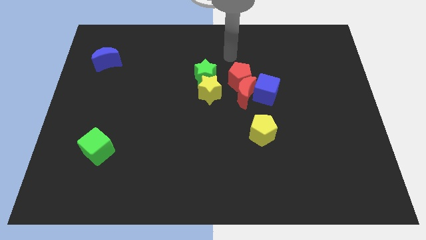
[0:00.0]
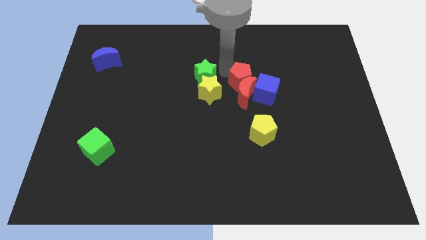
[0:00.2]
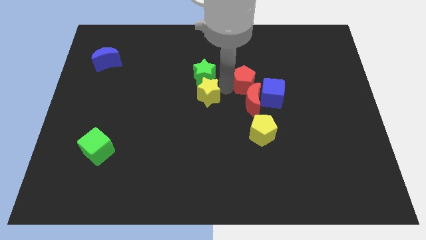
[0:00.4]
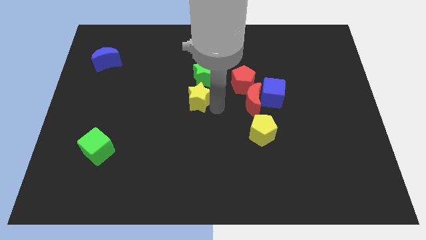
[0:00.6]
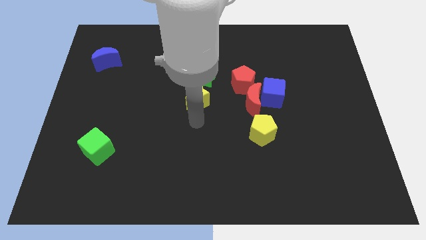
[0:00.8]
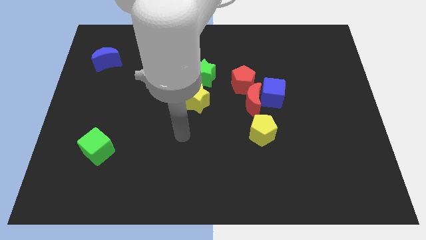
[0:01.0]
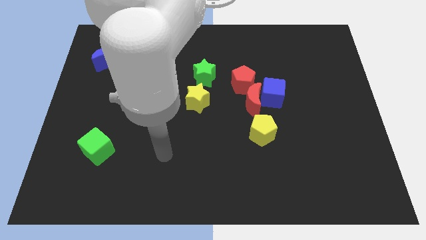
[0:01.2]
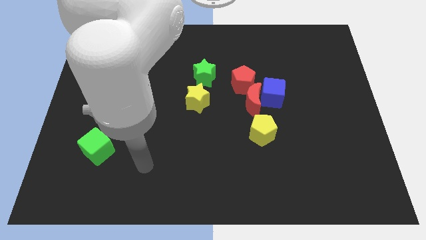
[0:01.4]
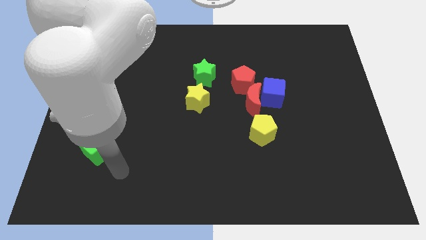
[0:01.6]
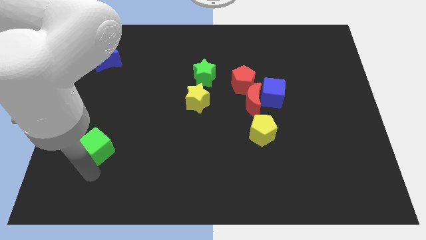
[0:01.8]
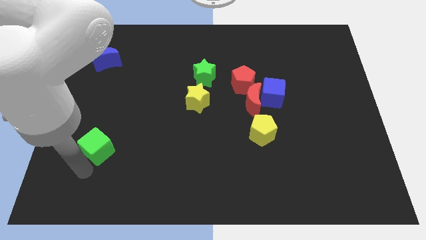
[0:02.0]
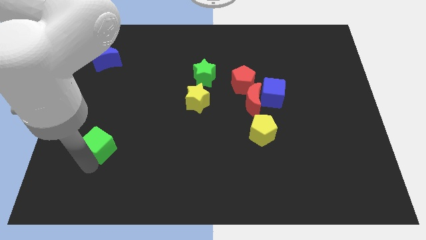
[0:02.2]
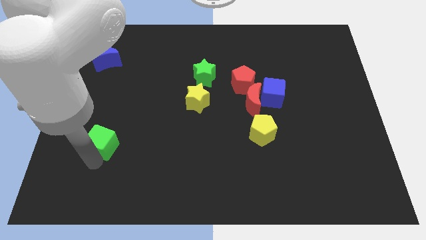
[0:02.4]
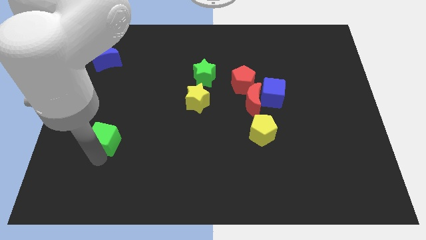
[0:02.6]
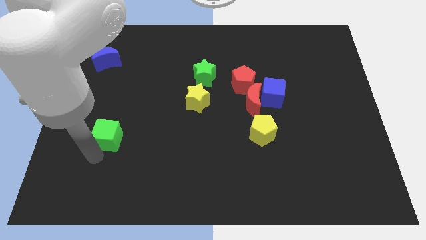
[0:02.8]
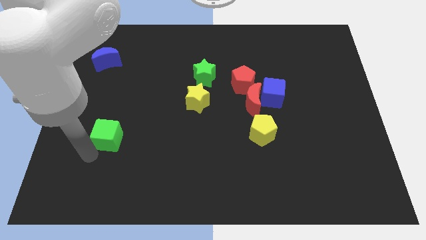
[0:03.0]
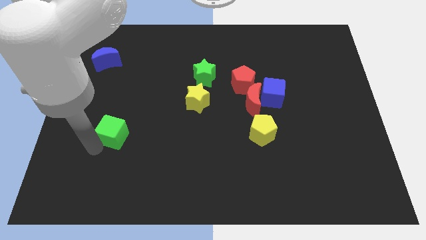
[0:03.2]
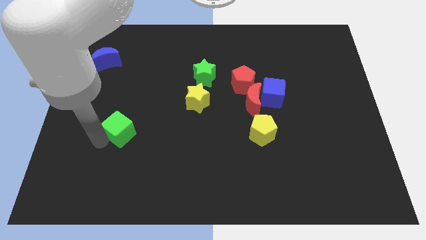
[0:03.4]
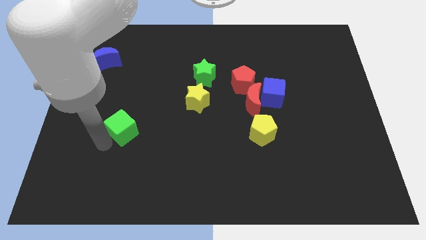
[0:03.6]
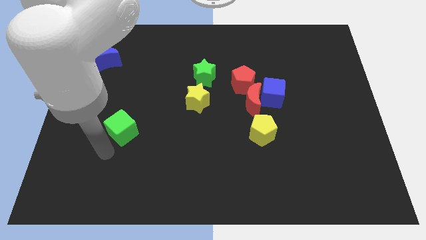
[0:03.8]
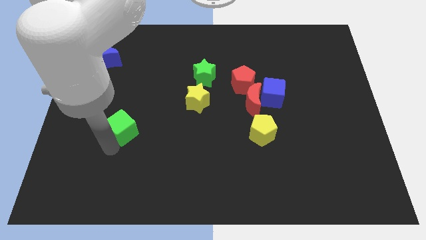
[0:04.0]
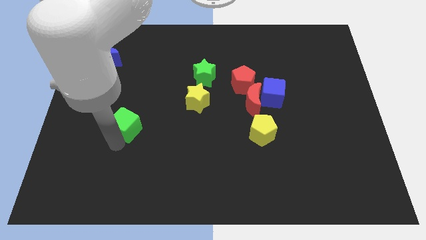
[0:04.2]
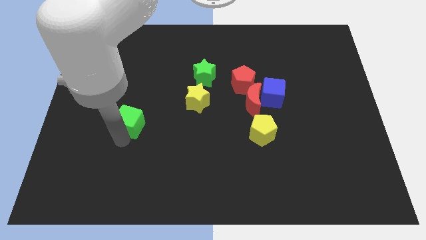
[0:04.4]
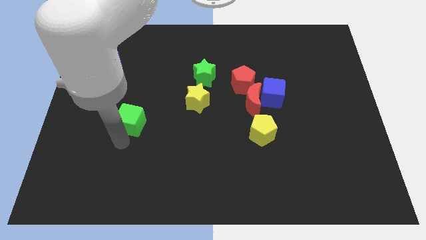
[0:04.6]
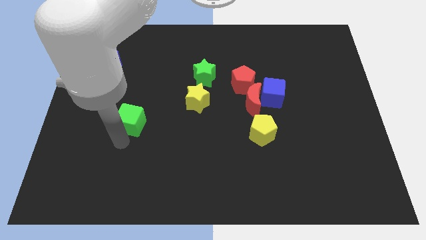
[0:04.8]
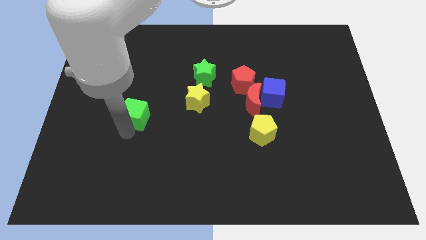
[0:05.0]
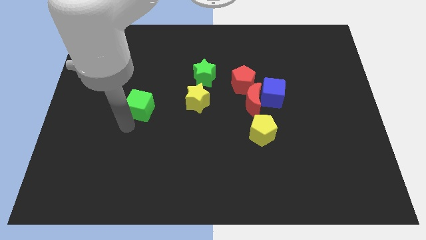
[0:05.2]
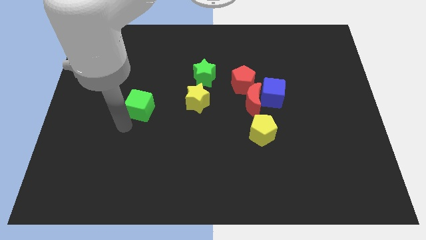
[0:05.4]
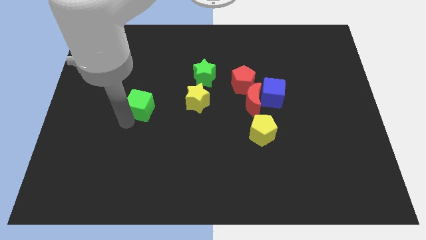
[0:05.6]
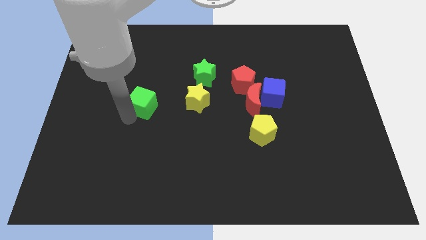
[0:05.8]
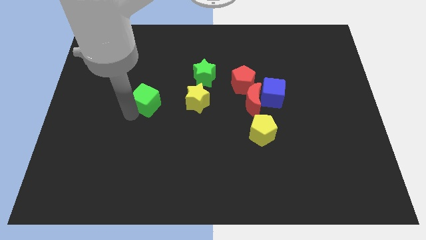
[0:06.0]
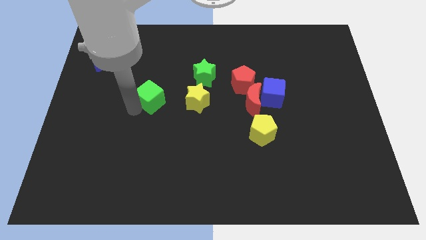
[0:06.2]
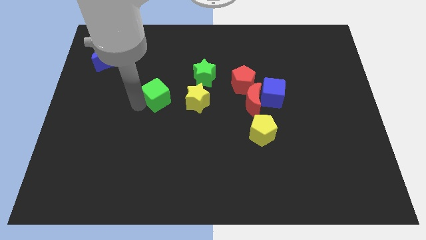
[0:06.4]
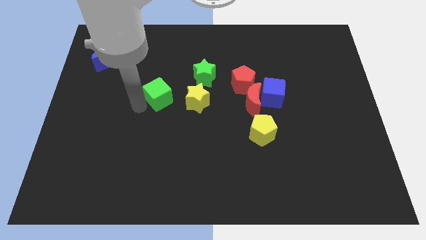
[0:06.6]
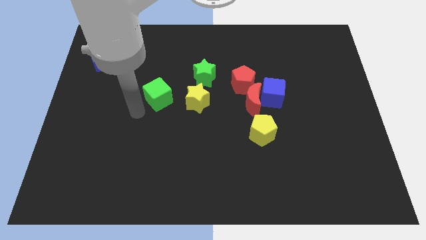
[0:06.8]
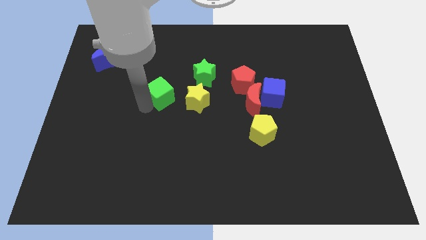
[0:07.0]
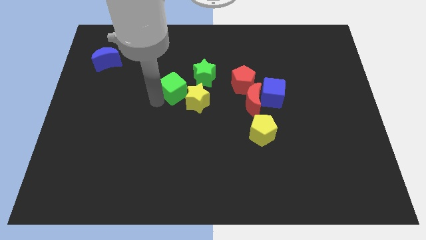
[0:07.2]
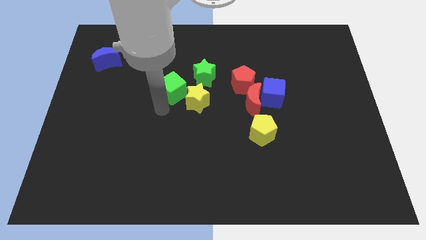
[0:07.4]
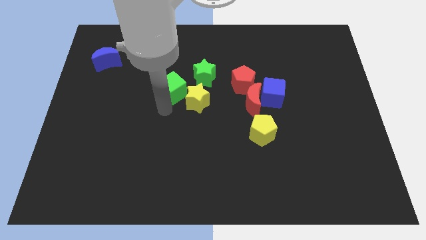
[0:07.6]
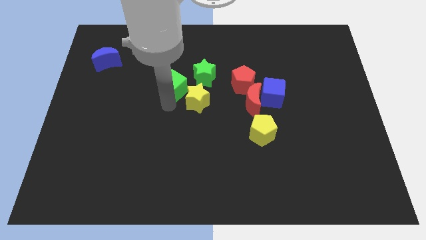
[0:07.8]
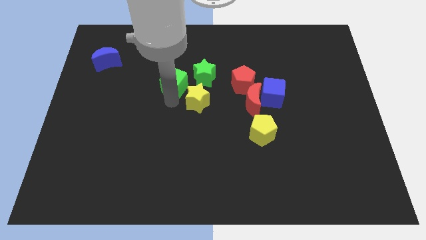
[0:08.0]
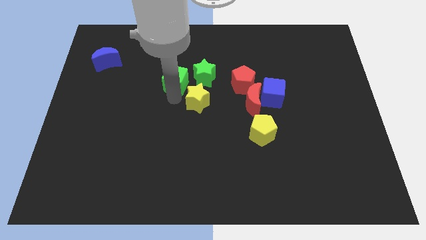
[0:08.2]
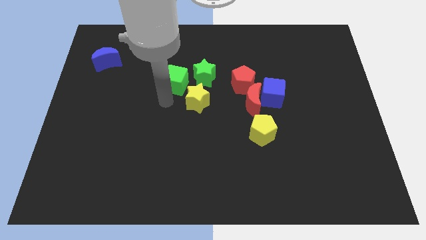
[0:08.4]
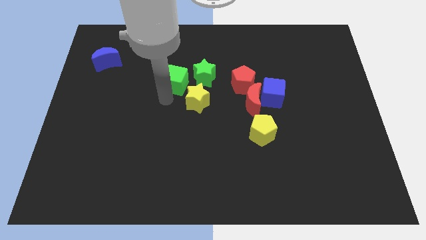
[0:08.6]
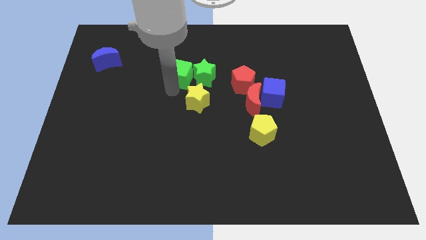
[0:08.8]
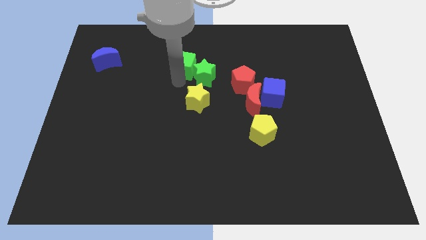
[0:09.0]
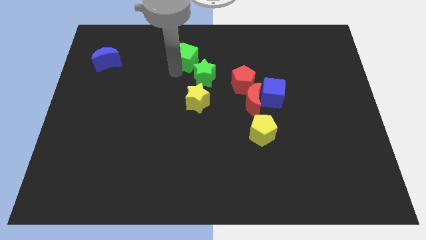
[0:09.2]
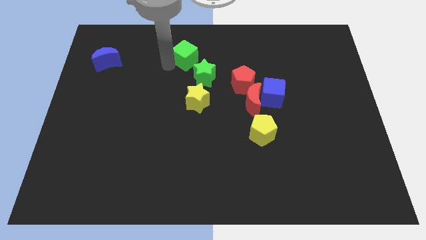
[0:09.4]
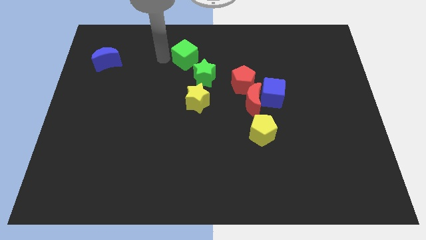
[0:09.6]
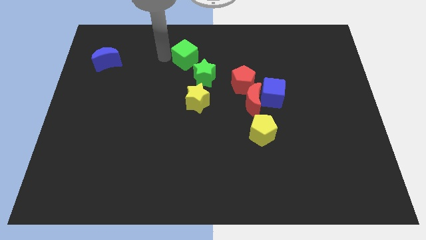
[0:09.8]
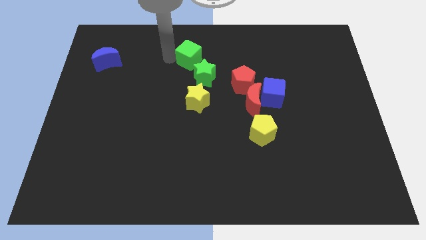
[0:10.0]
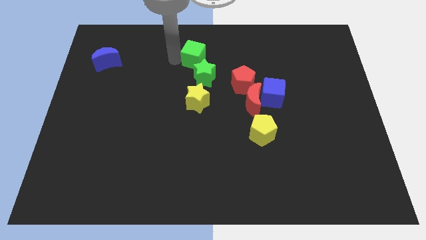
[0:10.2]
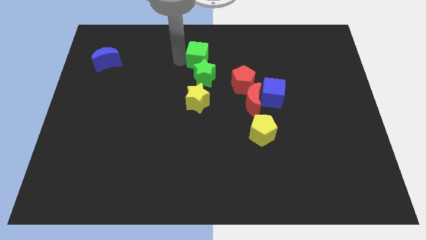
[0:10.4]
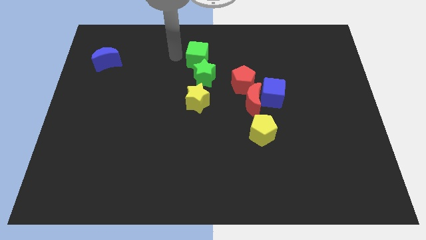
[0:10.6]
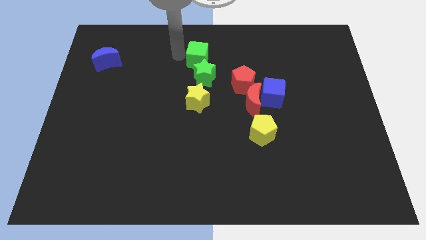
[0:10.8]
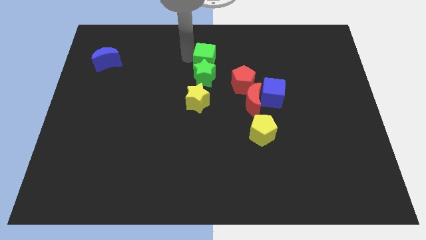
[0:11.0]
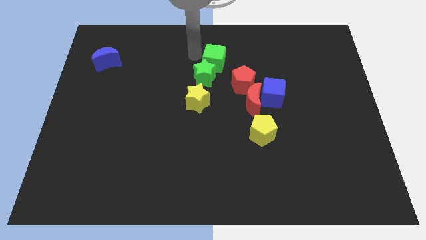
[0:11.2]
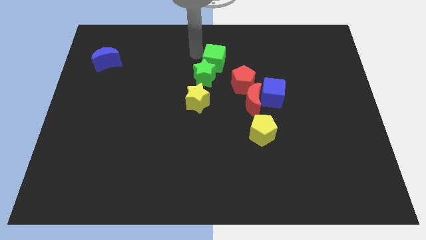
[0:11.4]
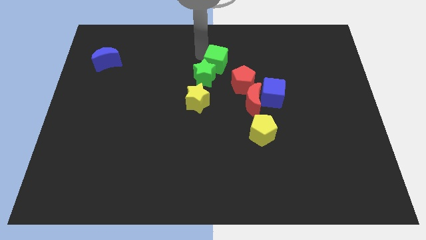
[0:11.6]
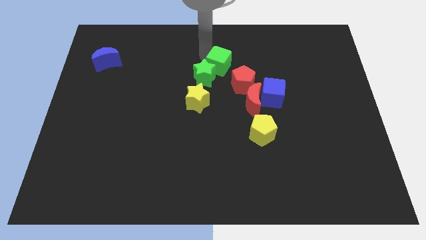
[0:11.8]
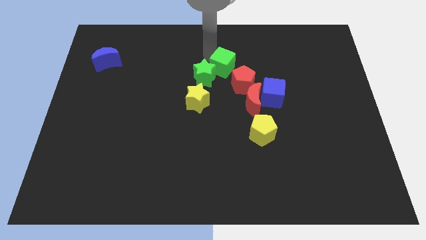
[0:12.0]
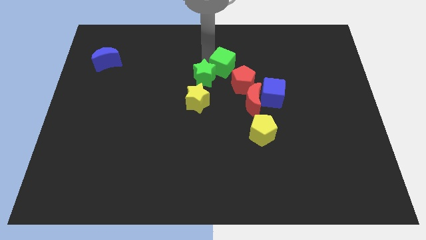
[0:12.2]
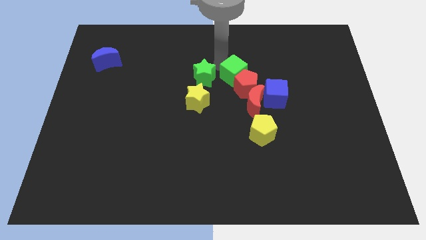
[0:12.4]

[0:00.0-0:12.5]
push the green cube to the top left side of the blue cube
